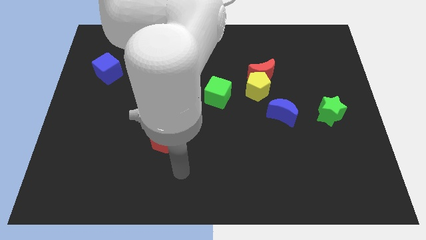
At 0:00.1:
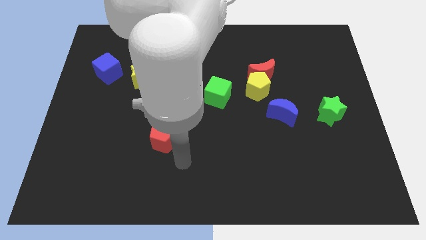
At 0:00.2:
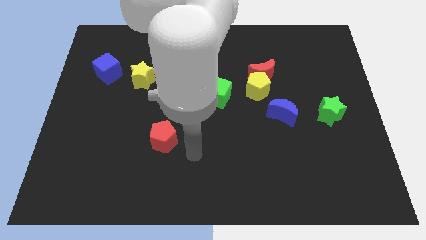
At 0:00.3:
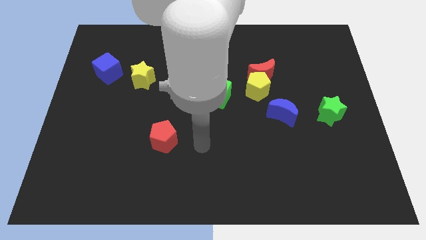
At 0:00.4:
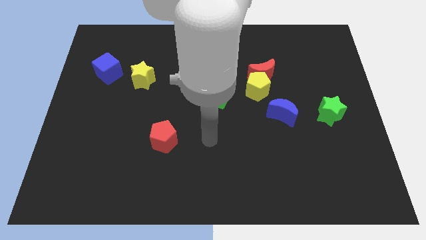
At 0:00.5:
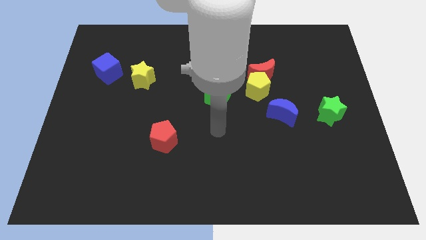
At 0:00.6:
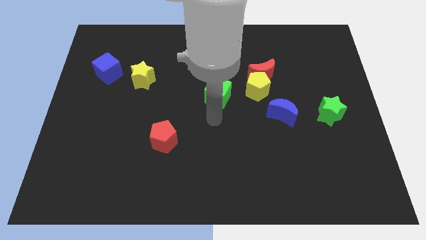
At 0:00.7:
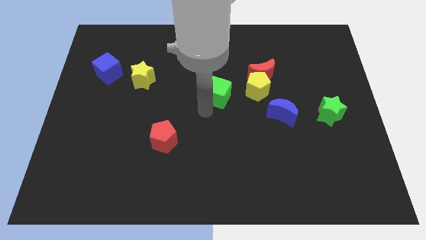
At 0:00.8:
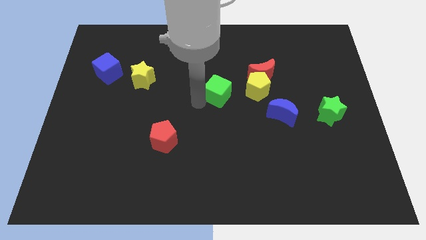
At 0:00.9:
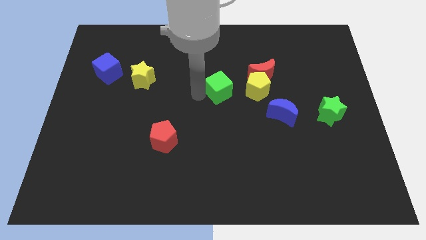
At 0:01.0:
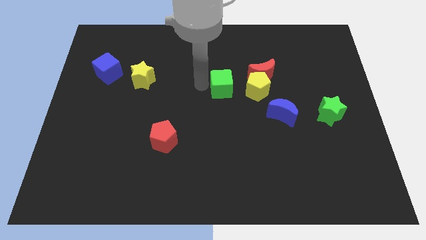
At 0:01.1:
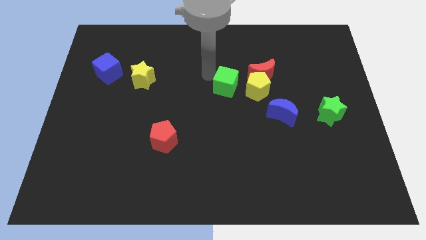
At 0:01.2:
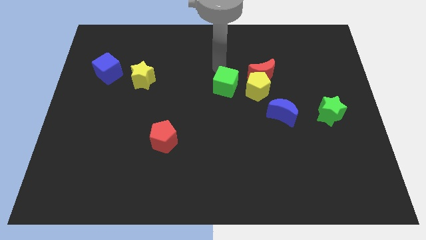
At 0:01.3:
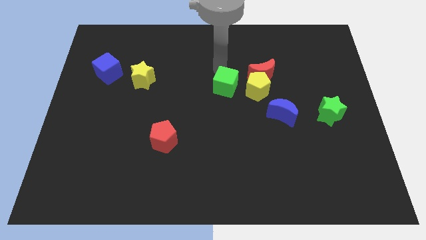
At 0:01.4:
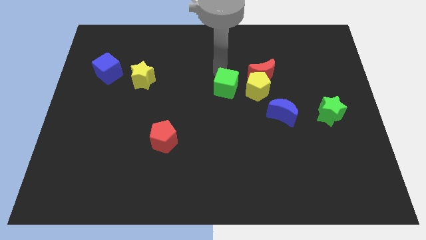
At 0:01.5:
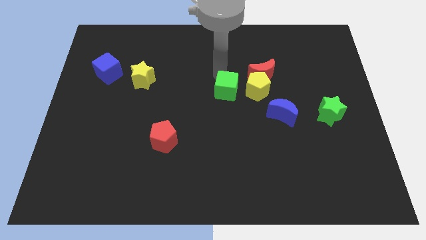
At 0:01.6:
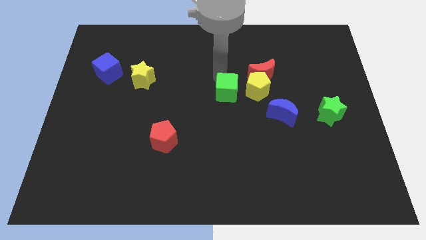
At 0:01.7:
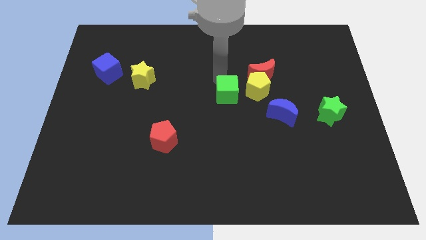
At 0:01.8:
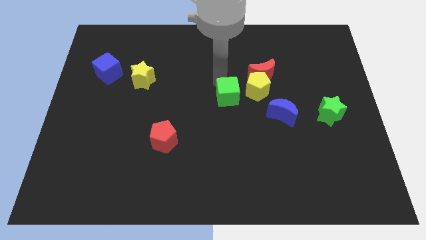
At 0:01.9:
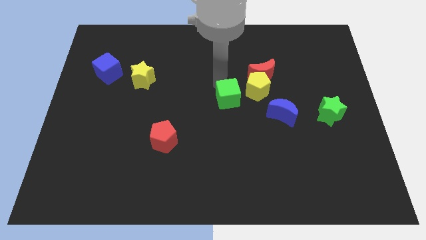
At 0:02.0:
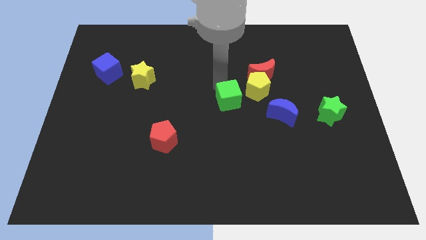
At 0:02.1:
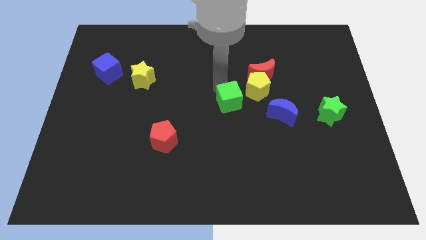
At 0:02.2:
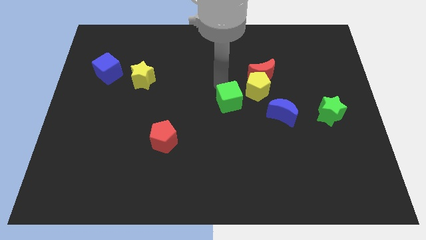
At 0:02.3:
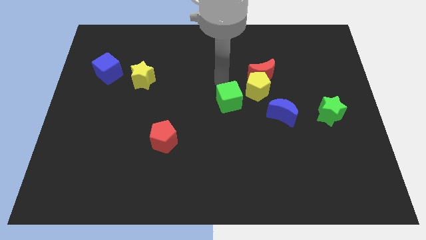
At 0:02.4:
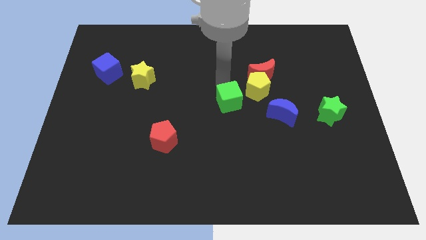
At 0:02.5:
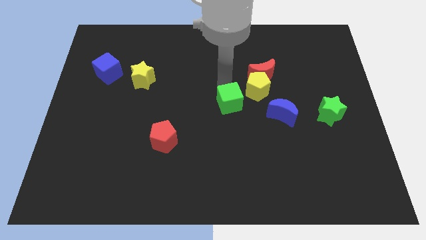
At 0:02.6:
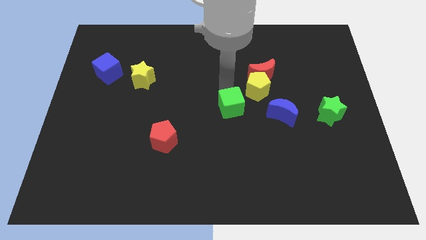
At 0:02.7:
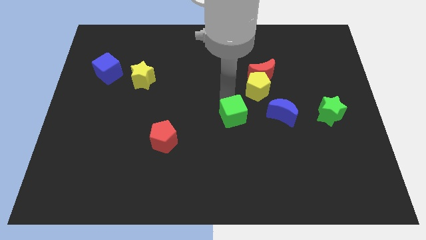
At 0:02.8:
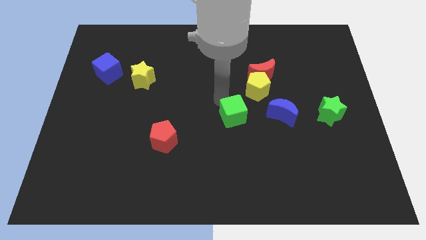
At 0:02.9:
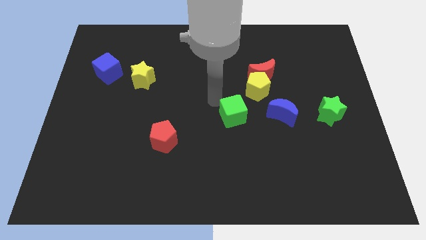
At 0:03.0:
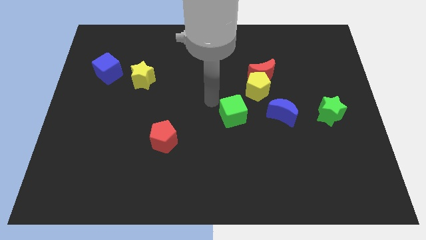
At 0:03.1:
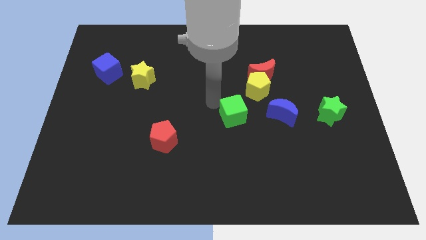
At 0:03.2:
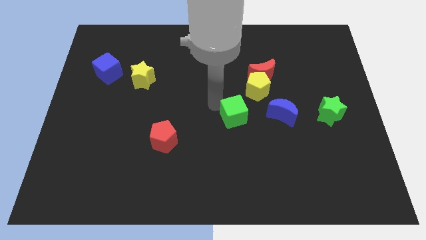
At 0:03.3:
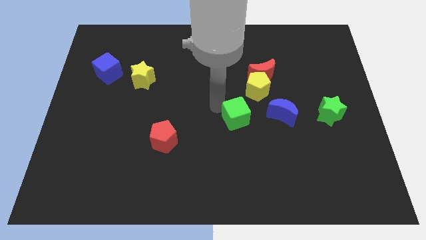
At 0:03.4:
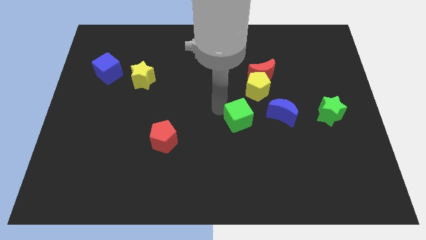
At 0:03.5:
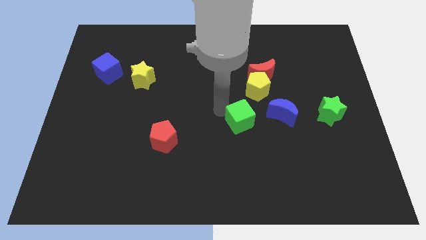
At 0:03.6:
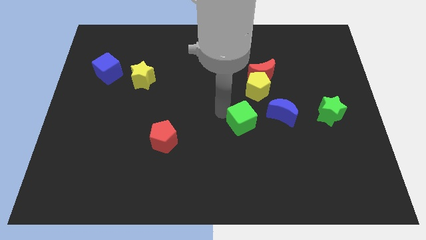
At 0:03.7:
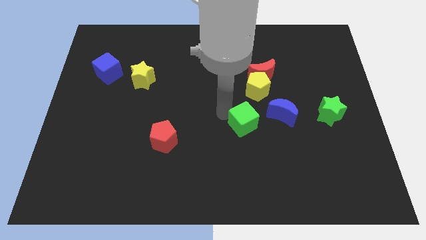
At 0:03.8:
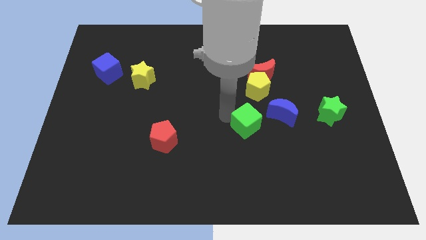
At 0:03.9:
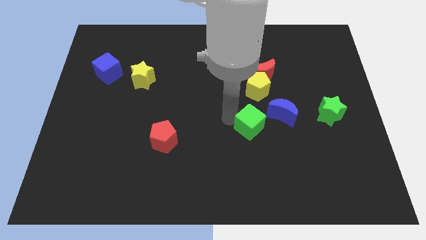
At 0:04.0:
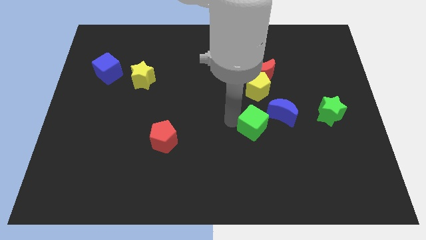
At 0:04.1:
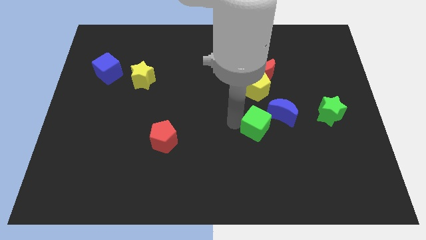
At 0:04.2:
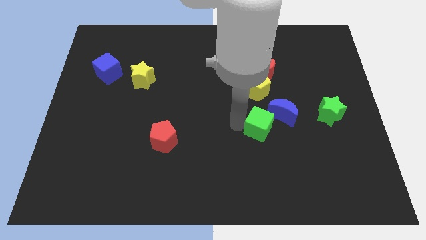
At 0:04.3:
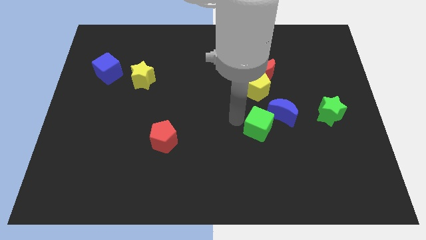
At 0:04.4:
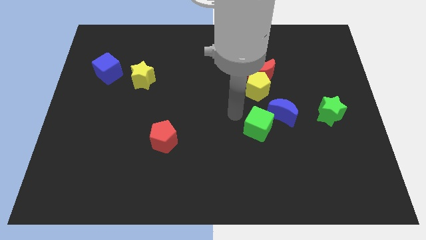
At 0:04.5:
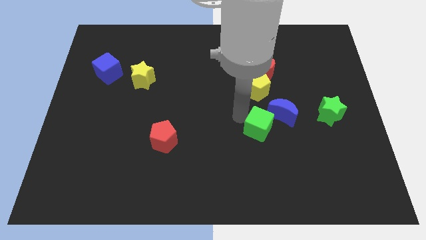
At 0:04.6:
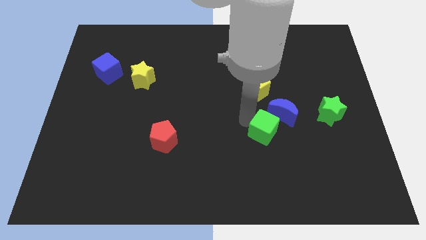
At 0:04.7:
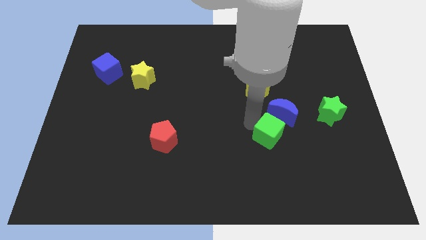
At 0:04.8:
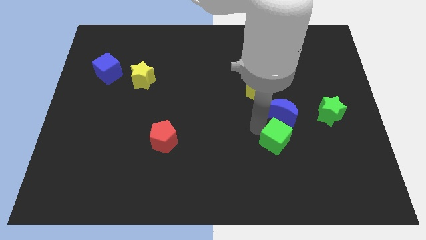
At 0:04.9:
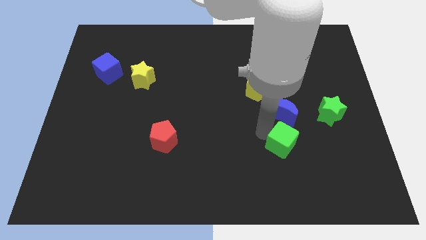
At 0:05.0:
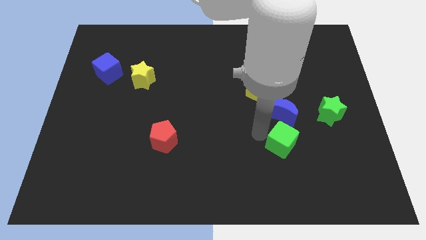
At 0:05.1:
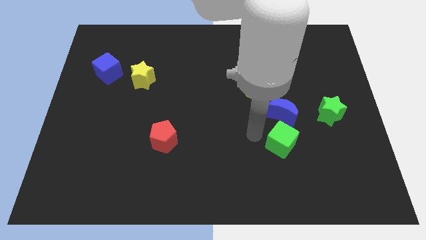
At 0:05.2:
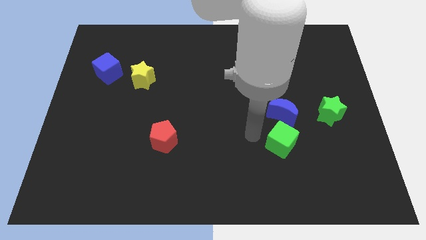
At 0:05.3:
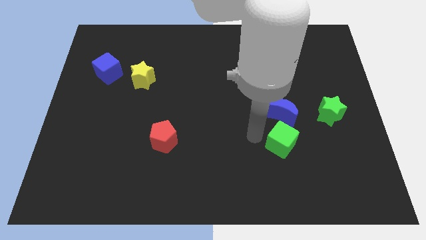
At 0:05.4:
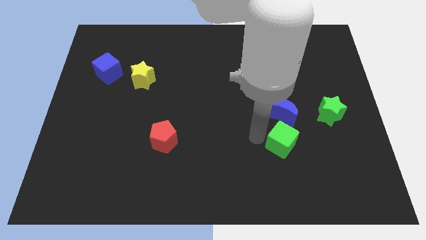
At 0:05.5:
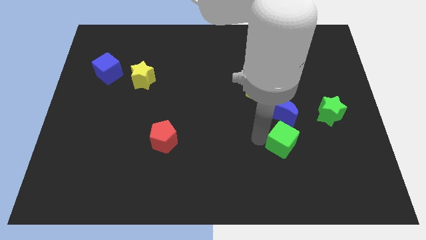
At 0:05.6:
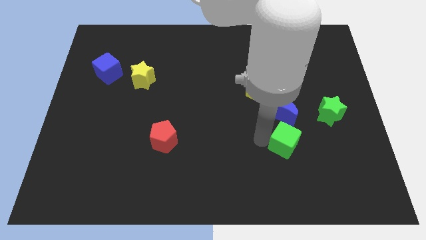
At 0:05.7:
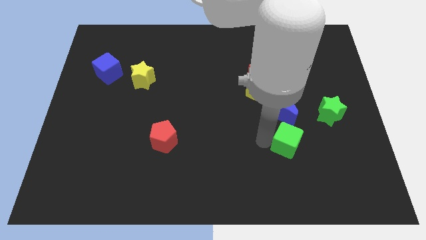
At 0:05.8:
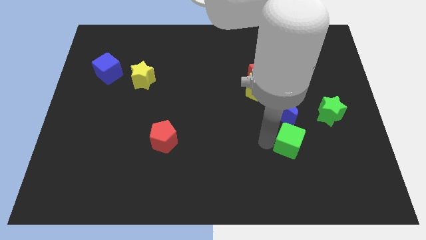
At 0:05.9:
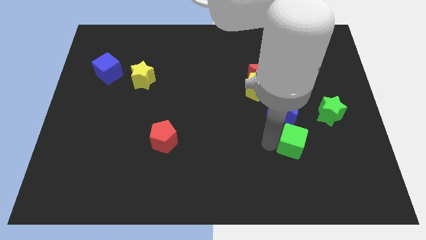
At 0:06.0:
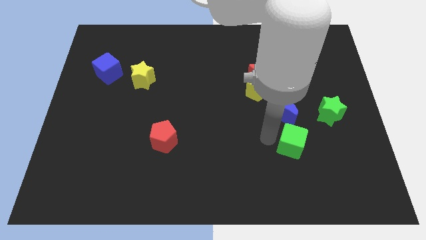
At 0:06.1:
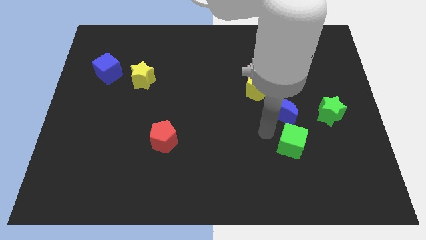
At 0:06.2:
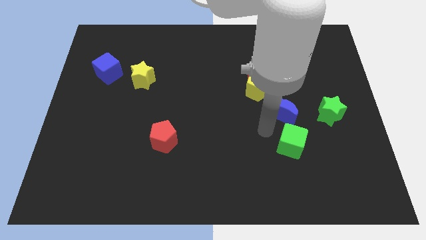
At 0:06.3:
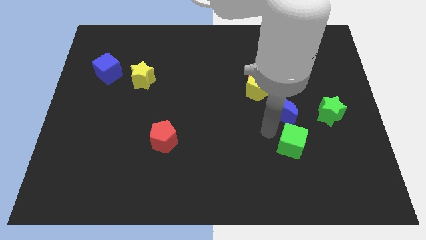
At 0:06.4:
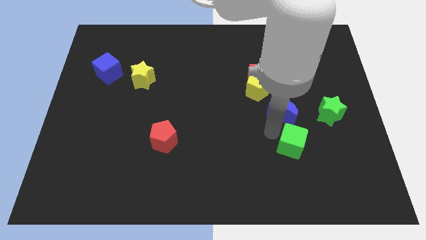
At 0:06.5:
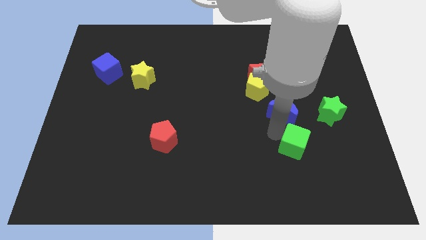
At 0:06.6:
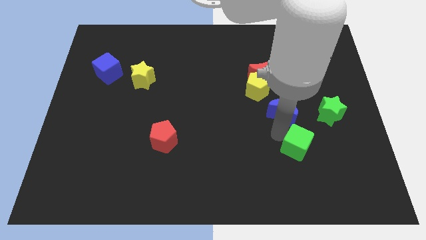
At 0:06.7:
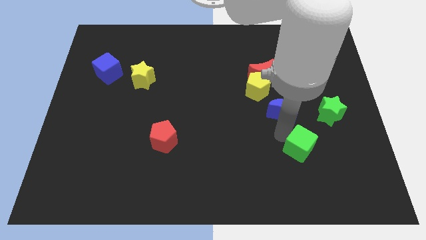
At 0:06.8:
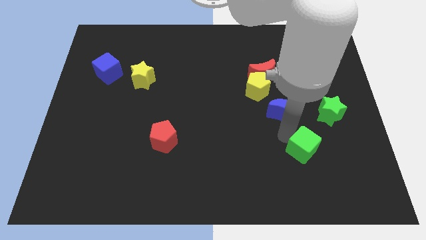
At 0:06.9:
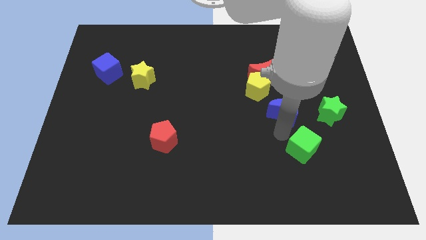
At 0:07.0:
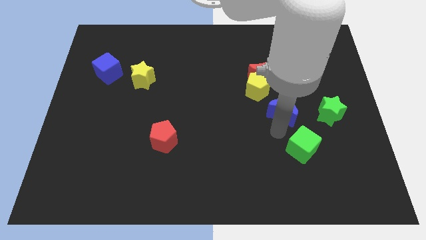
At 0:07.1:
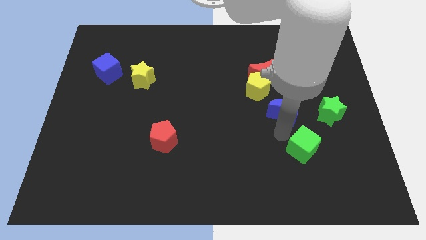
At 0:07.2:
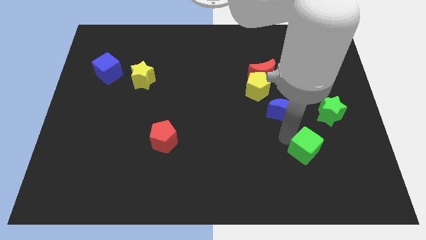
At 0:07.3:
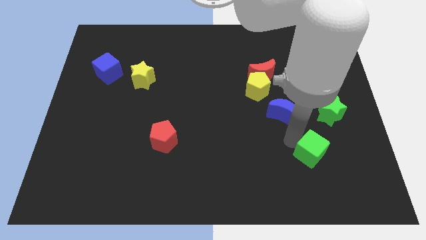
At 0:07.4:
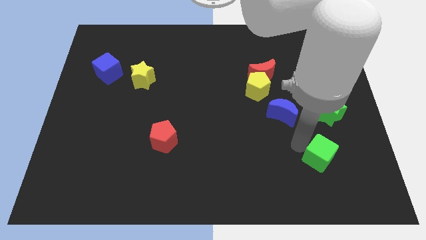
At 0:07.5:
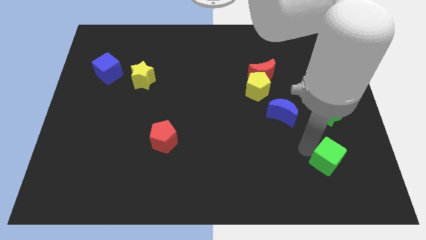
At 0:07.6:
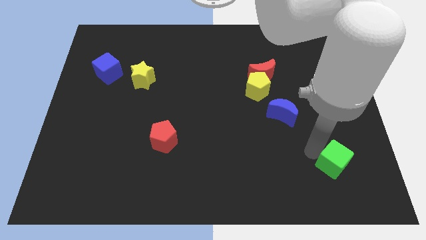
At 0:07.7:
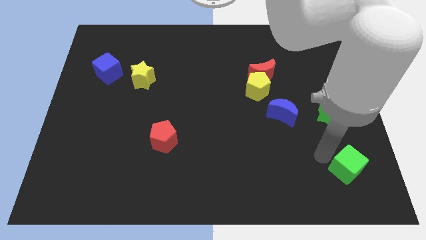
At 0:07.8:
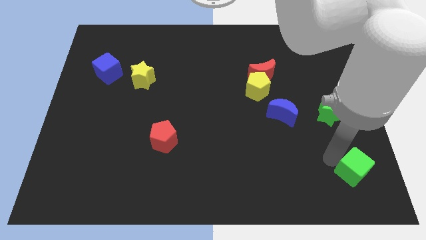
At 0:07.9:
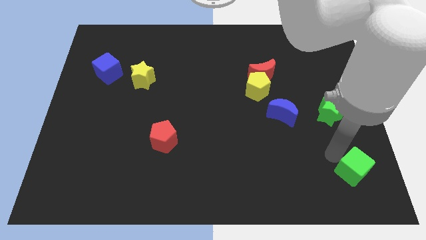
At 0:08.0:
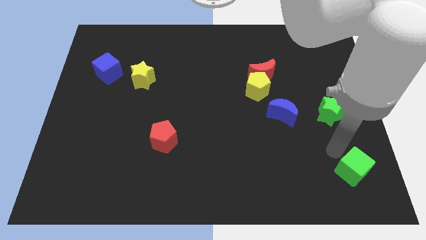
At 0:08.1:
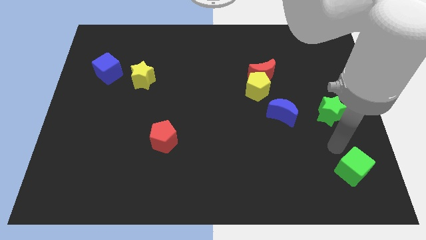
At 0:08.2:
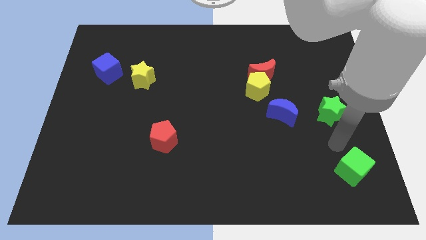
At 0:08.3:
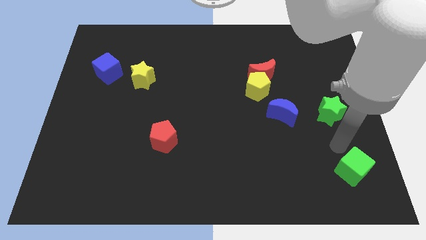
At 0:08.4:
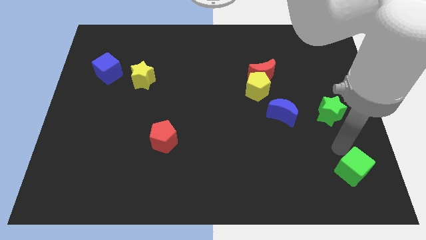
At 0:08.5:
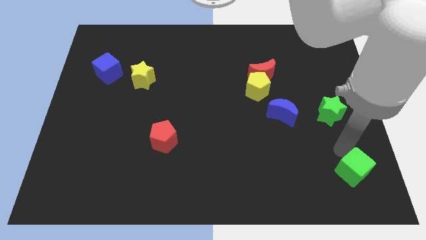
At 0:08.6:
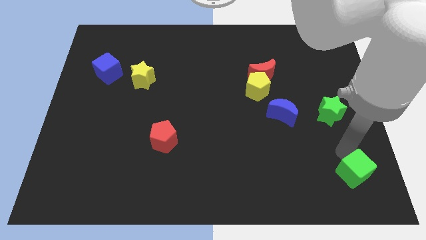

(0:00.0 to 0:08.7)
push the green cube to the lower right corner
